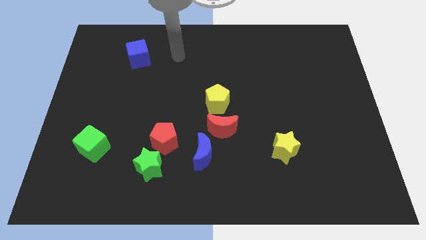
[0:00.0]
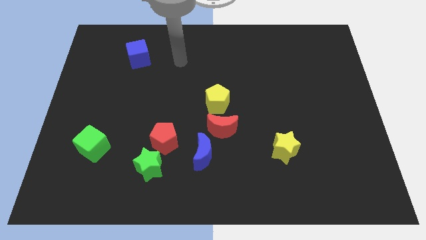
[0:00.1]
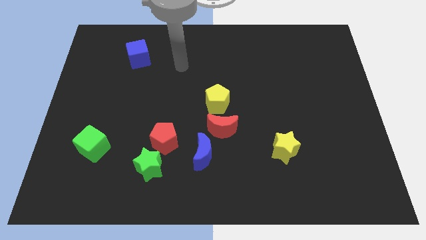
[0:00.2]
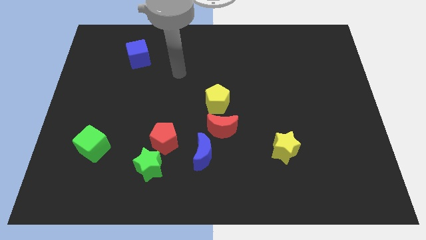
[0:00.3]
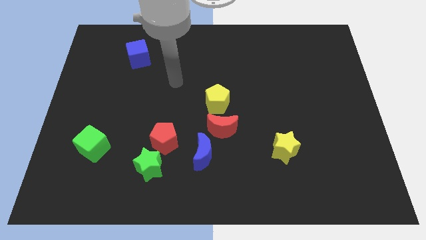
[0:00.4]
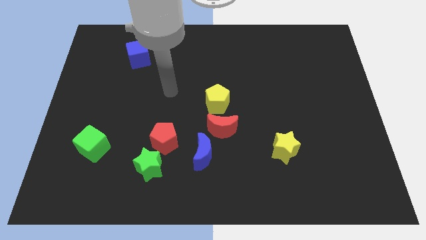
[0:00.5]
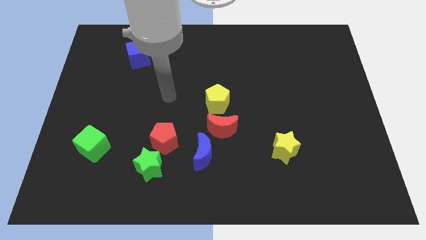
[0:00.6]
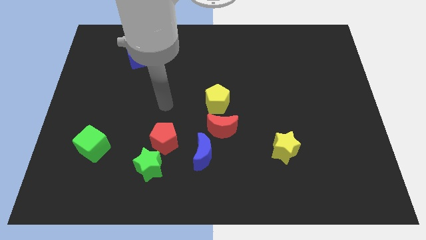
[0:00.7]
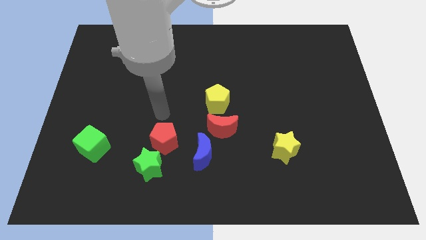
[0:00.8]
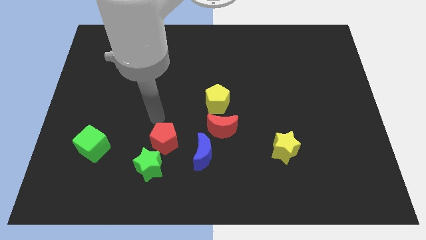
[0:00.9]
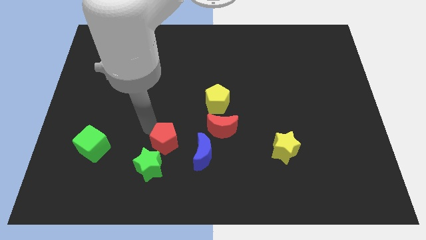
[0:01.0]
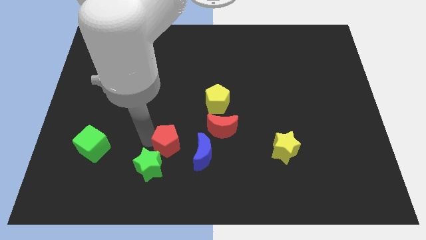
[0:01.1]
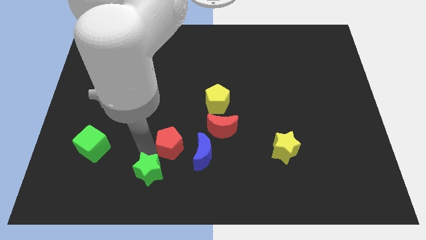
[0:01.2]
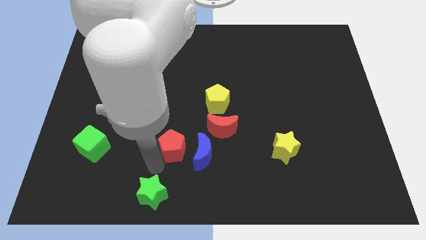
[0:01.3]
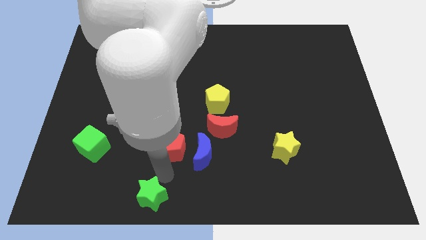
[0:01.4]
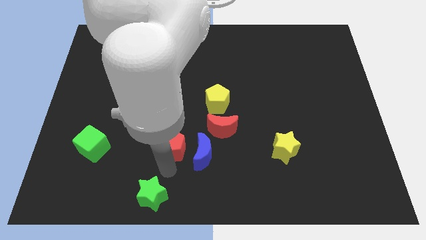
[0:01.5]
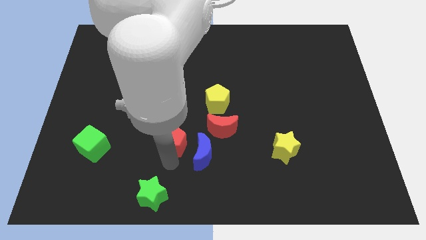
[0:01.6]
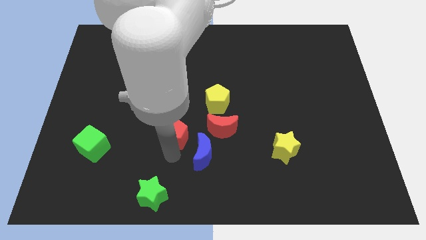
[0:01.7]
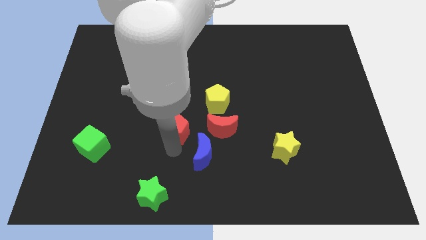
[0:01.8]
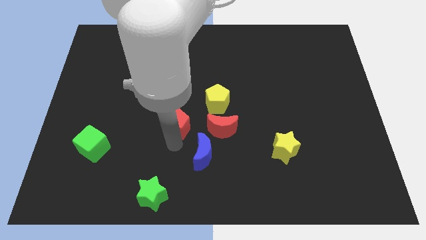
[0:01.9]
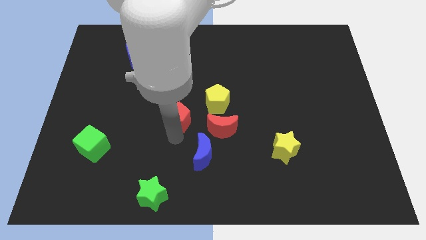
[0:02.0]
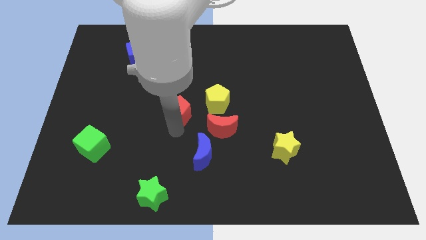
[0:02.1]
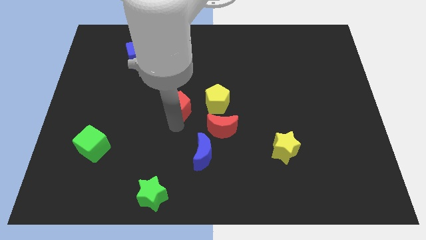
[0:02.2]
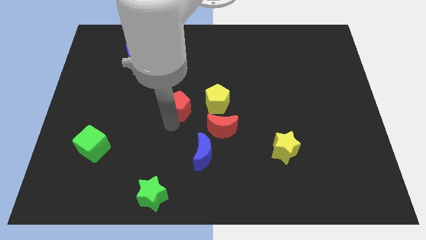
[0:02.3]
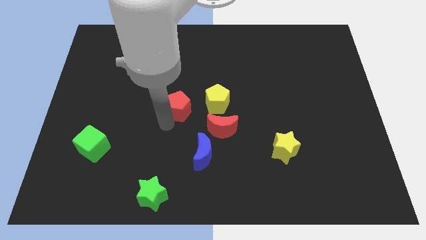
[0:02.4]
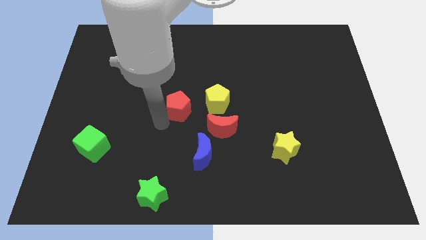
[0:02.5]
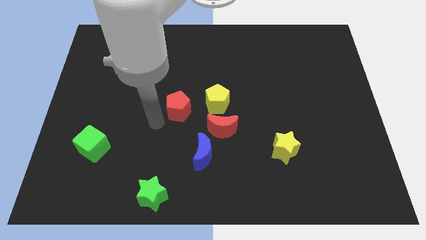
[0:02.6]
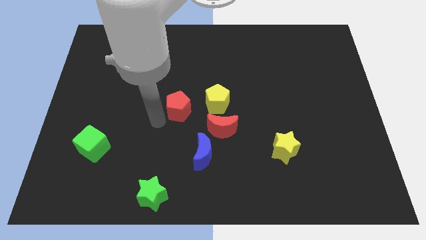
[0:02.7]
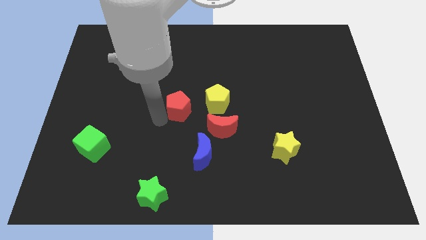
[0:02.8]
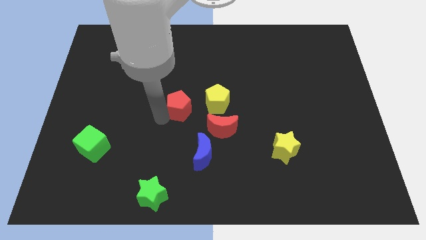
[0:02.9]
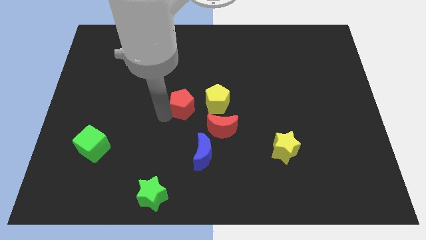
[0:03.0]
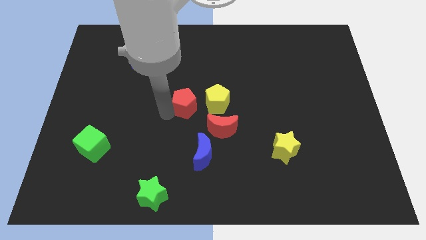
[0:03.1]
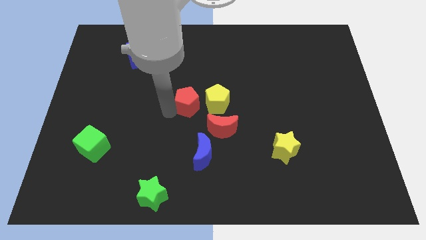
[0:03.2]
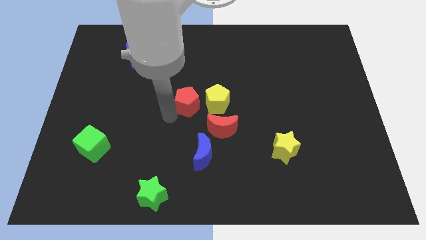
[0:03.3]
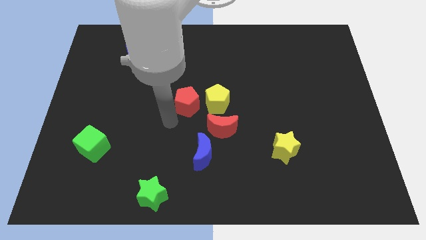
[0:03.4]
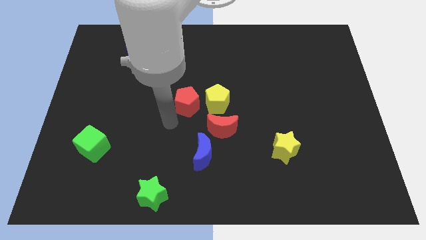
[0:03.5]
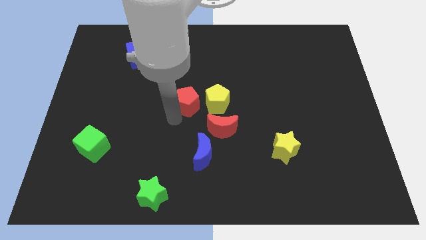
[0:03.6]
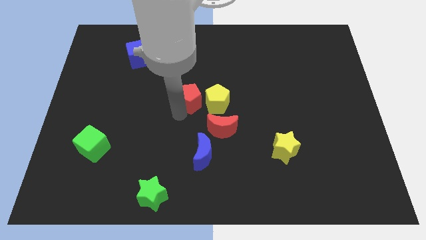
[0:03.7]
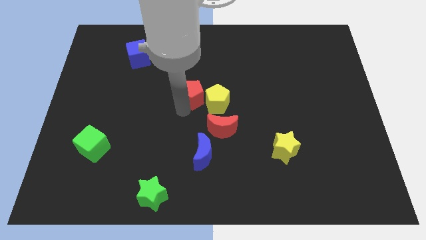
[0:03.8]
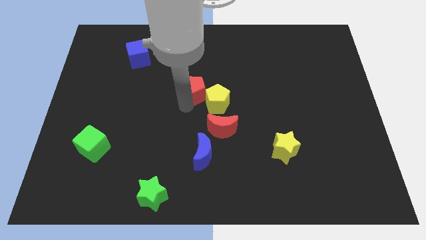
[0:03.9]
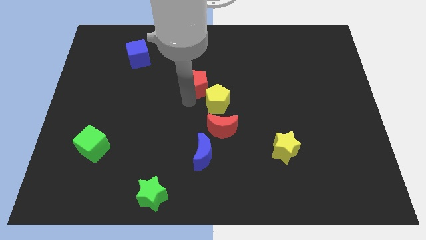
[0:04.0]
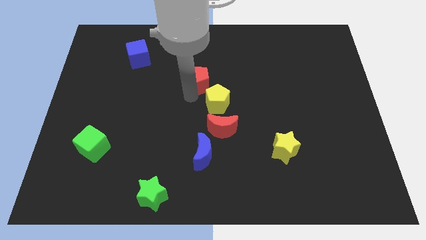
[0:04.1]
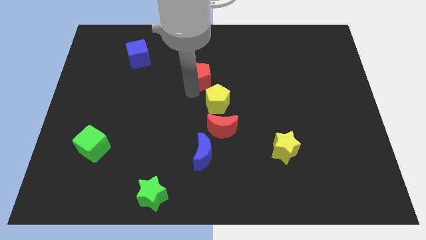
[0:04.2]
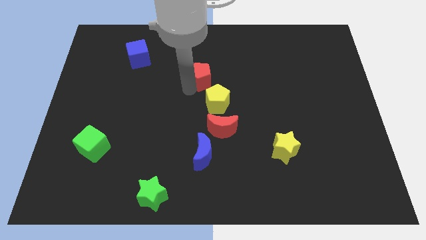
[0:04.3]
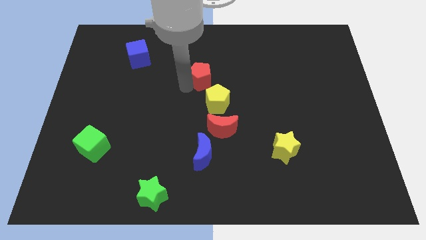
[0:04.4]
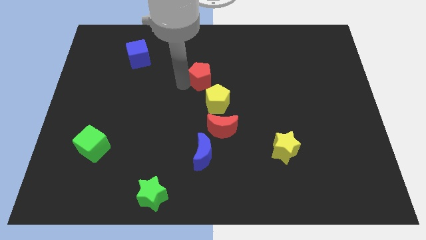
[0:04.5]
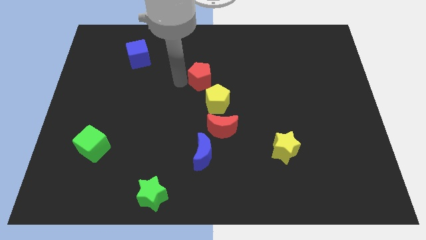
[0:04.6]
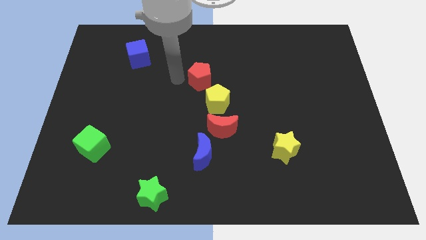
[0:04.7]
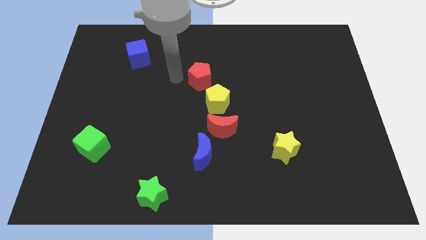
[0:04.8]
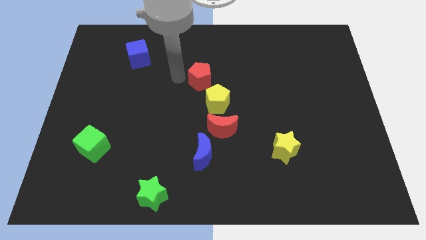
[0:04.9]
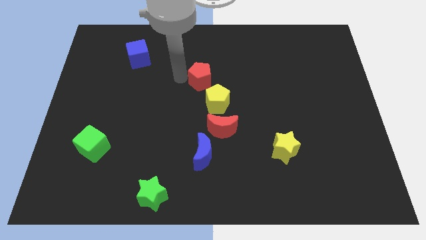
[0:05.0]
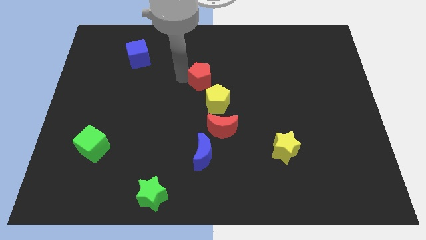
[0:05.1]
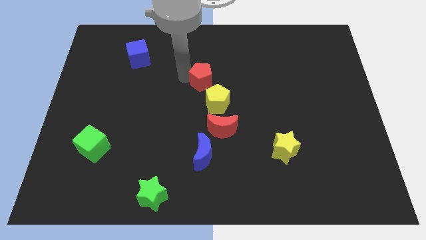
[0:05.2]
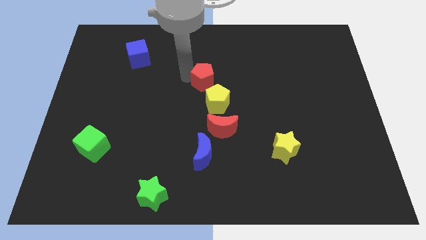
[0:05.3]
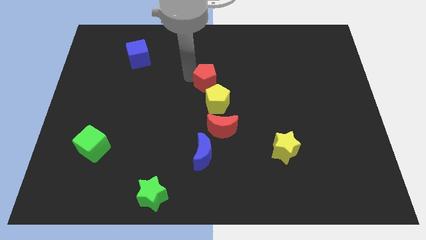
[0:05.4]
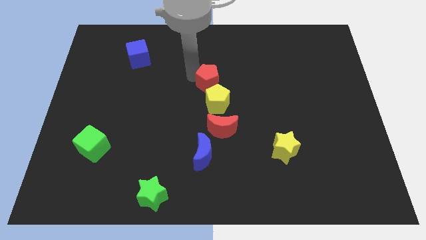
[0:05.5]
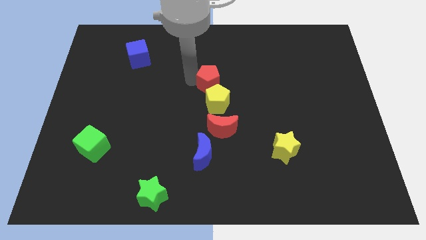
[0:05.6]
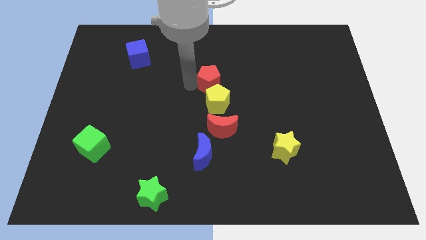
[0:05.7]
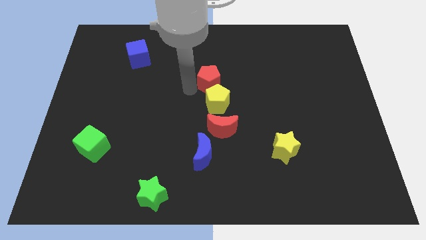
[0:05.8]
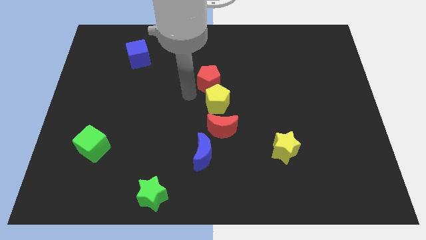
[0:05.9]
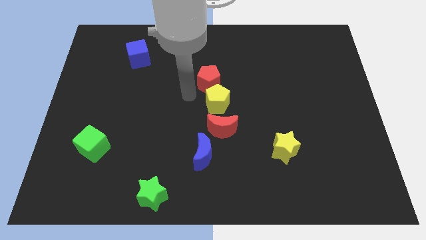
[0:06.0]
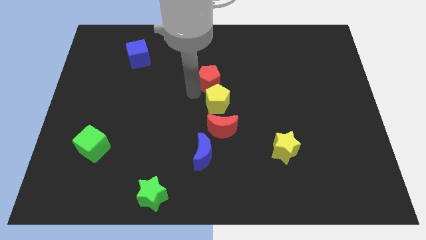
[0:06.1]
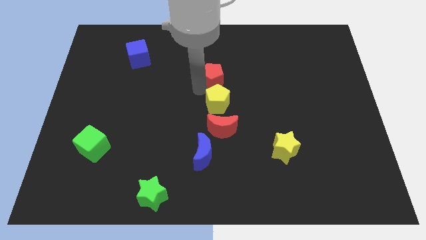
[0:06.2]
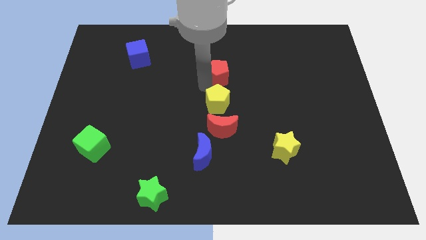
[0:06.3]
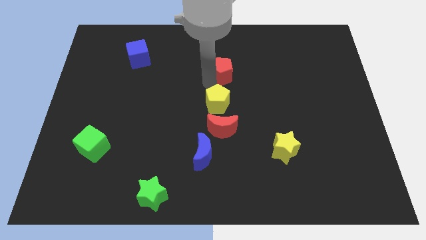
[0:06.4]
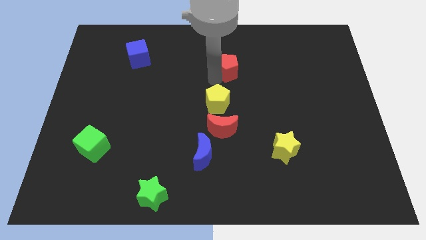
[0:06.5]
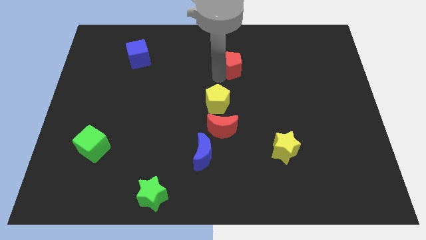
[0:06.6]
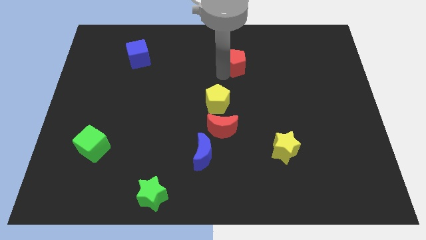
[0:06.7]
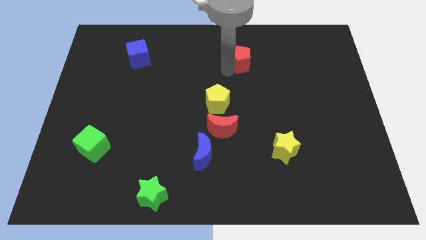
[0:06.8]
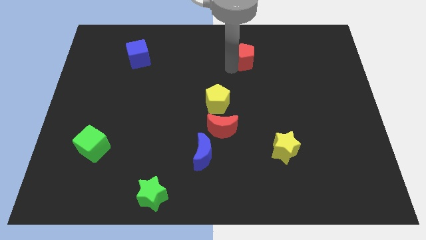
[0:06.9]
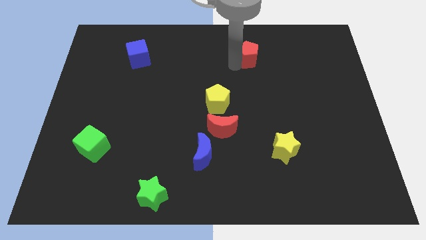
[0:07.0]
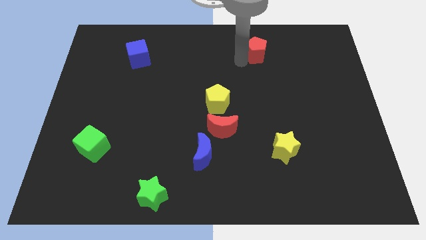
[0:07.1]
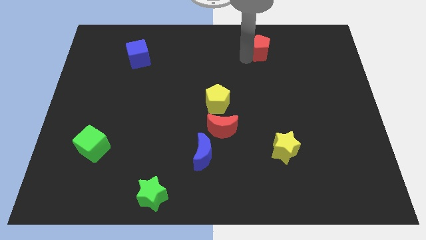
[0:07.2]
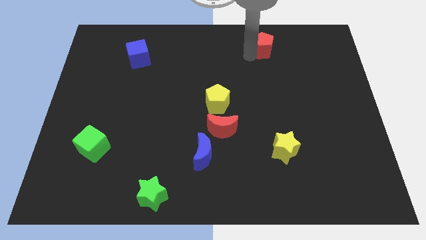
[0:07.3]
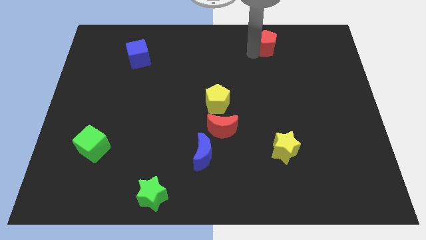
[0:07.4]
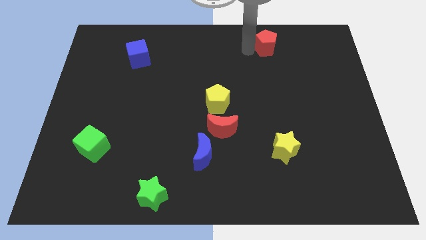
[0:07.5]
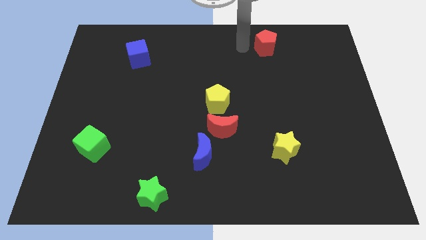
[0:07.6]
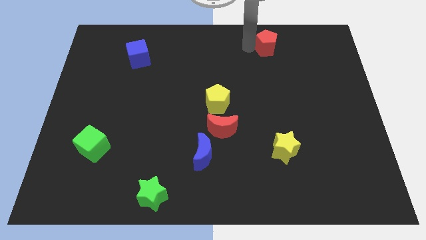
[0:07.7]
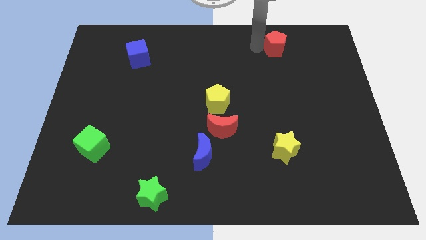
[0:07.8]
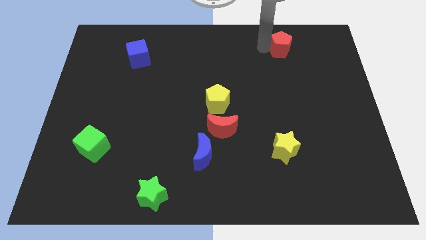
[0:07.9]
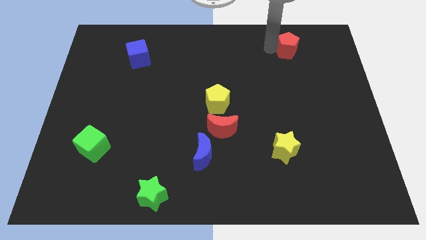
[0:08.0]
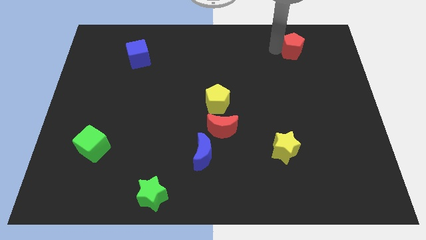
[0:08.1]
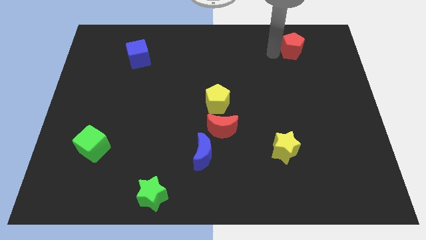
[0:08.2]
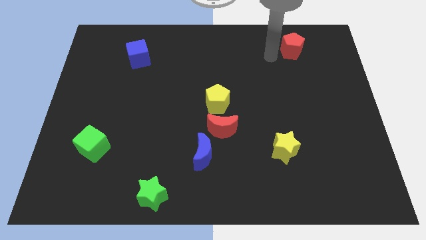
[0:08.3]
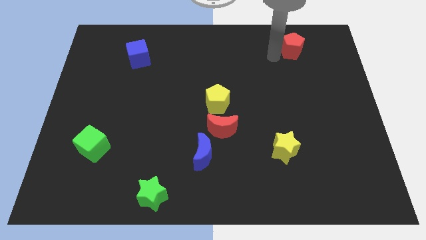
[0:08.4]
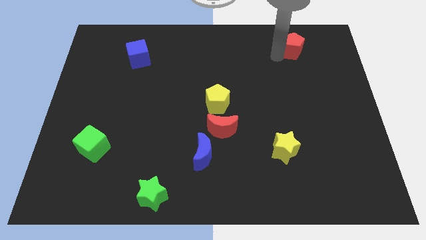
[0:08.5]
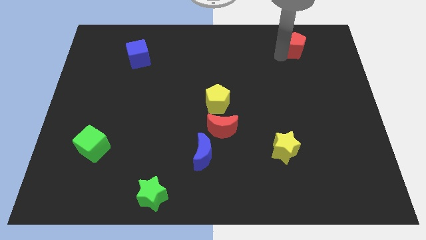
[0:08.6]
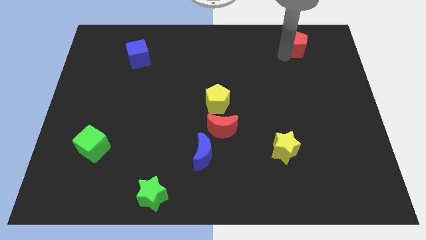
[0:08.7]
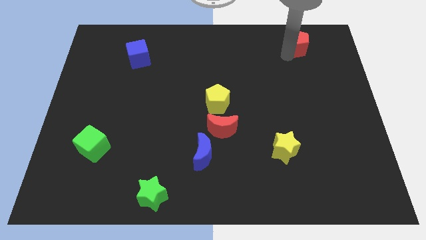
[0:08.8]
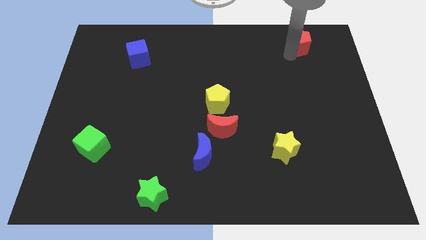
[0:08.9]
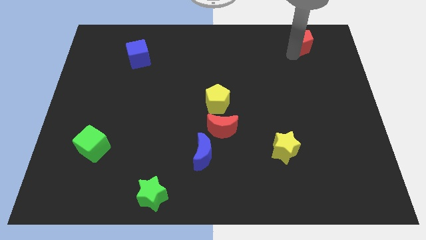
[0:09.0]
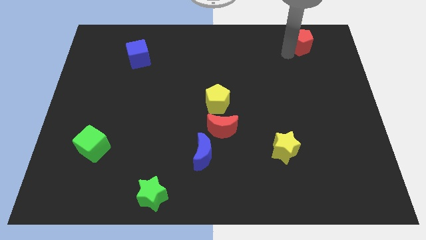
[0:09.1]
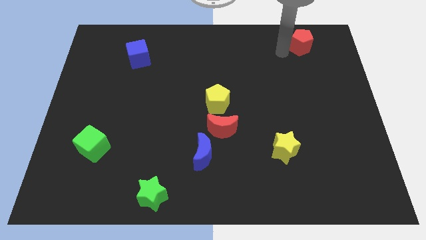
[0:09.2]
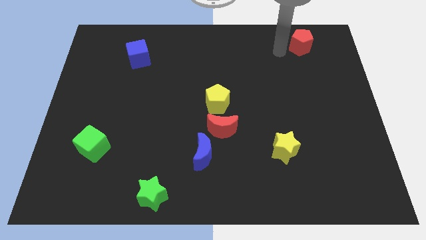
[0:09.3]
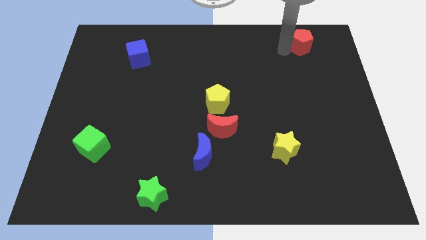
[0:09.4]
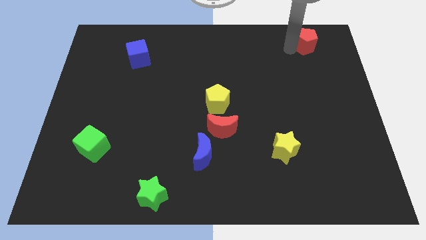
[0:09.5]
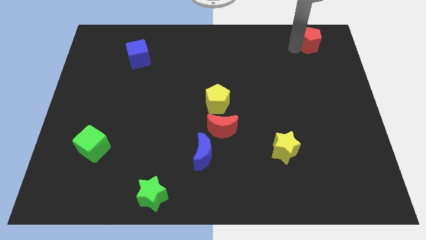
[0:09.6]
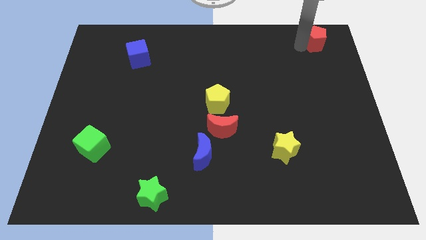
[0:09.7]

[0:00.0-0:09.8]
slide the red pentagon to the top right of the board
